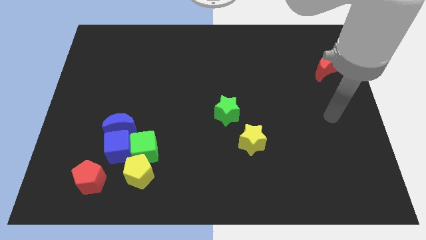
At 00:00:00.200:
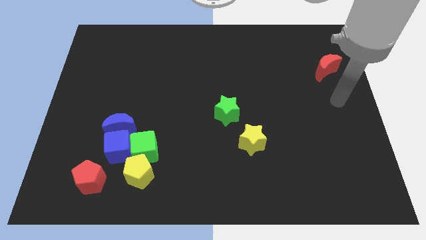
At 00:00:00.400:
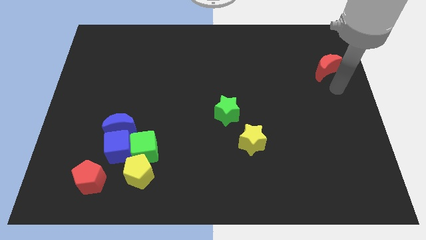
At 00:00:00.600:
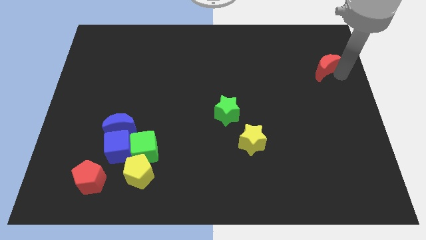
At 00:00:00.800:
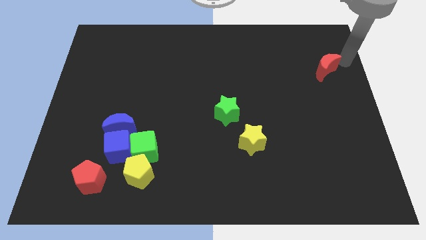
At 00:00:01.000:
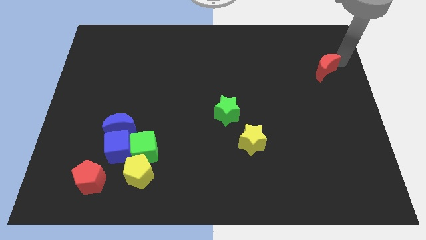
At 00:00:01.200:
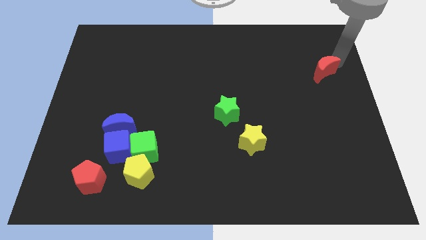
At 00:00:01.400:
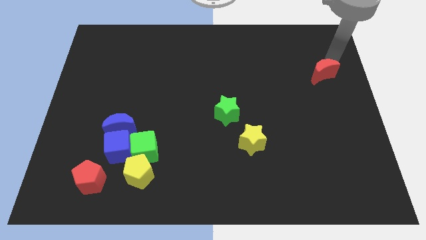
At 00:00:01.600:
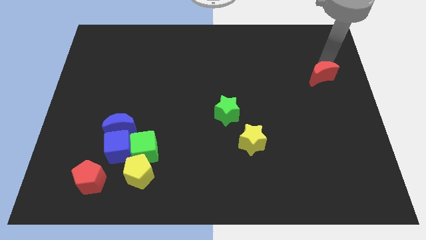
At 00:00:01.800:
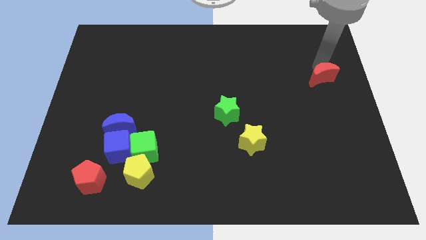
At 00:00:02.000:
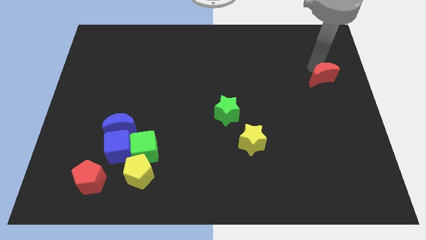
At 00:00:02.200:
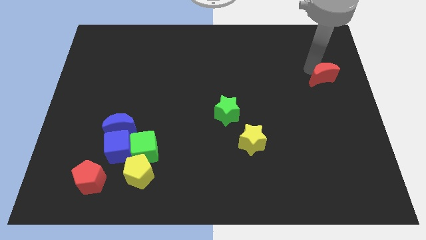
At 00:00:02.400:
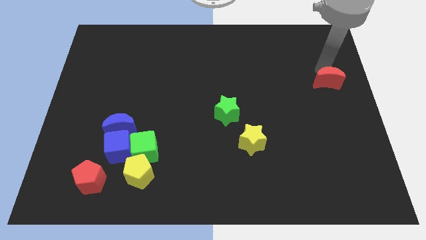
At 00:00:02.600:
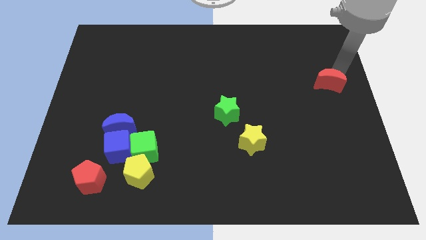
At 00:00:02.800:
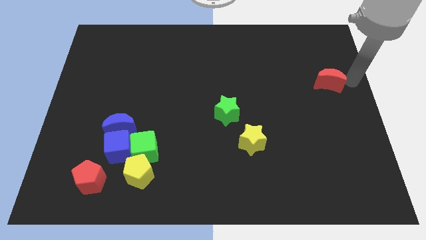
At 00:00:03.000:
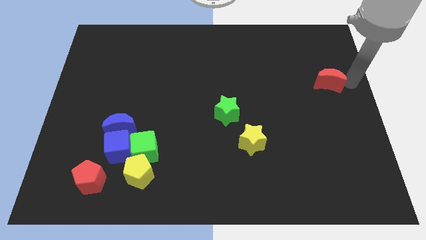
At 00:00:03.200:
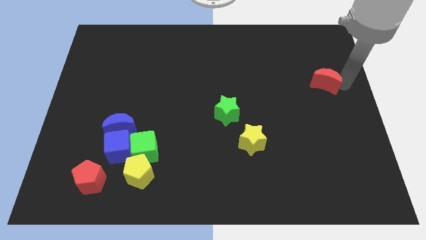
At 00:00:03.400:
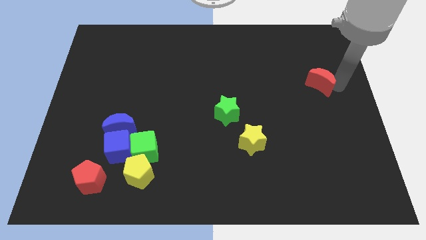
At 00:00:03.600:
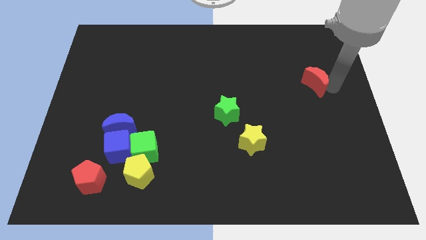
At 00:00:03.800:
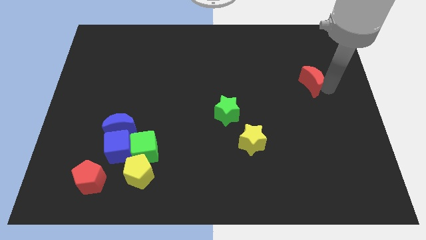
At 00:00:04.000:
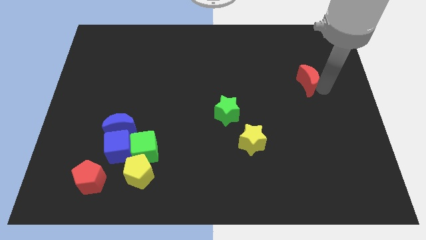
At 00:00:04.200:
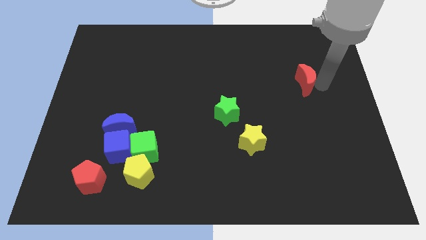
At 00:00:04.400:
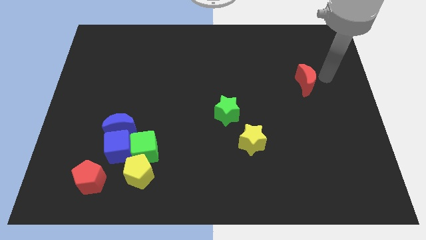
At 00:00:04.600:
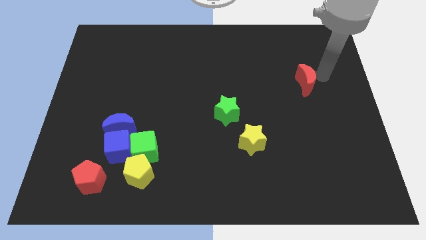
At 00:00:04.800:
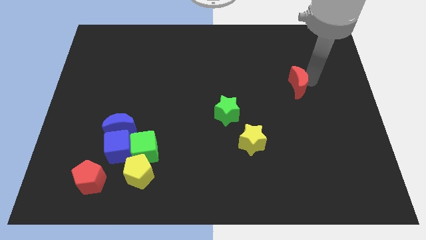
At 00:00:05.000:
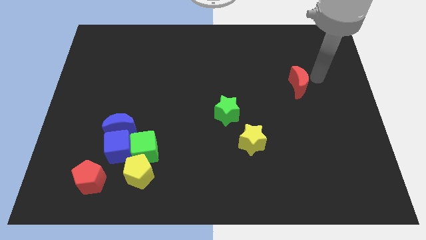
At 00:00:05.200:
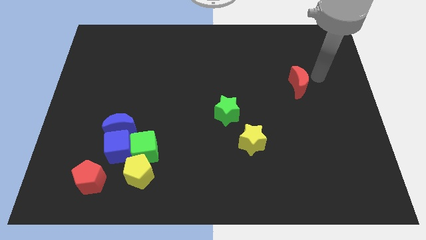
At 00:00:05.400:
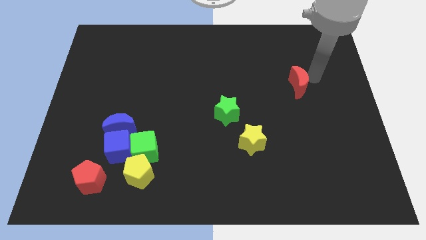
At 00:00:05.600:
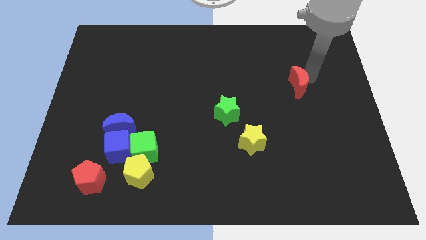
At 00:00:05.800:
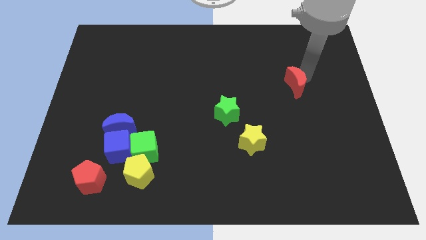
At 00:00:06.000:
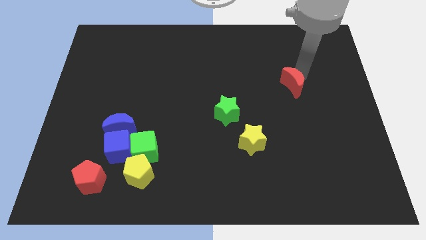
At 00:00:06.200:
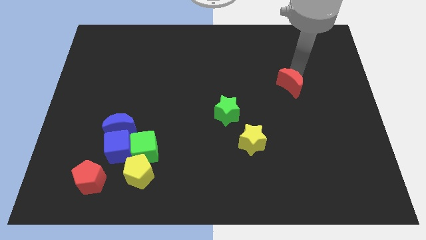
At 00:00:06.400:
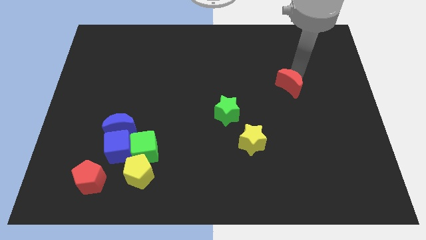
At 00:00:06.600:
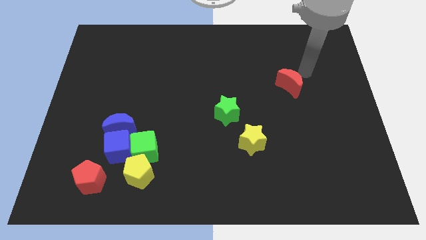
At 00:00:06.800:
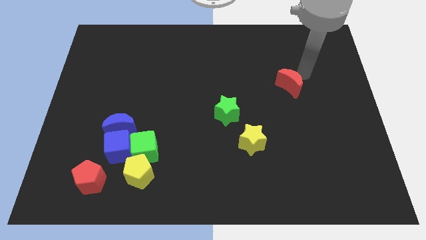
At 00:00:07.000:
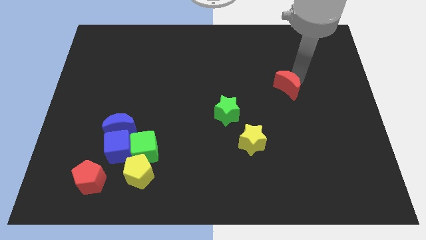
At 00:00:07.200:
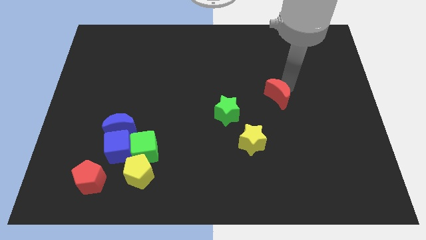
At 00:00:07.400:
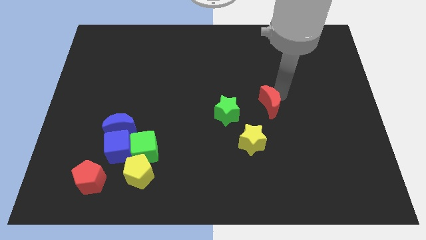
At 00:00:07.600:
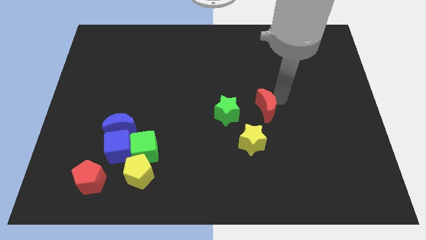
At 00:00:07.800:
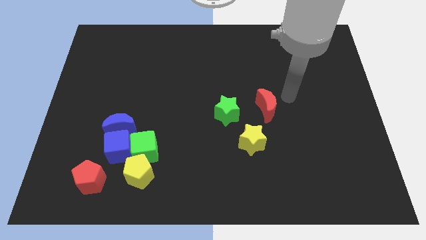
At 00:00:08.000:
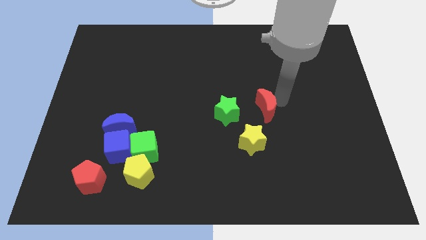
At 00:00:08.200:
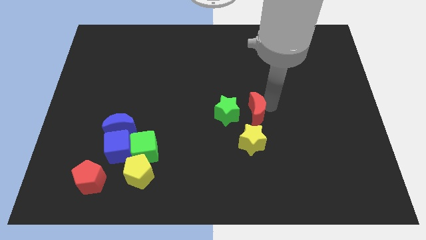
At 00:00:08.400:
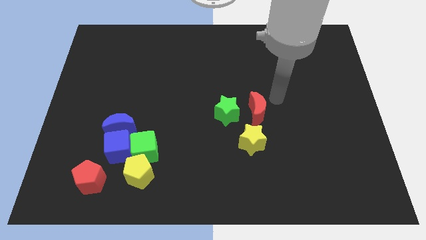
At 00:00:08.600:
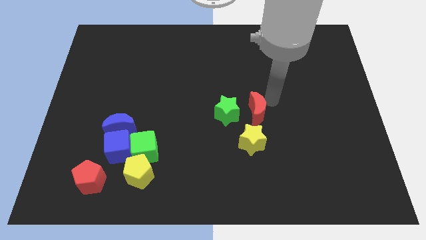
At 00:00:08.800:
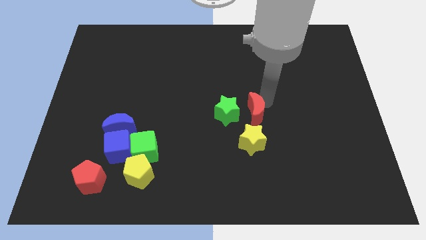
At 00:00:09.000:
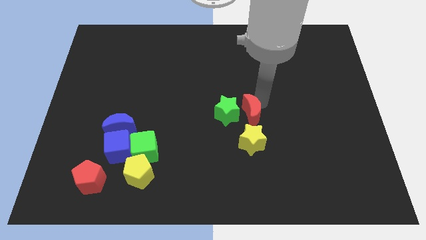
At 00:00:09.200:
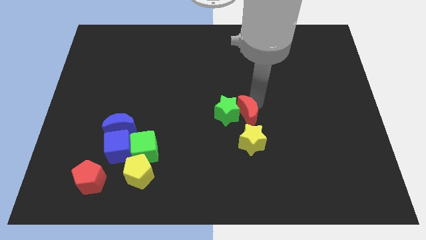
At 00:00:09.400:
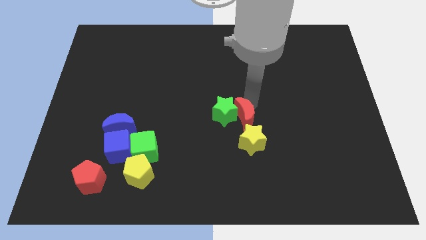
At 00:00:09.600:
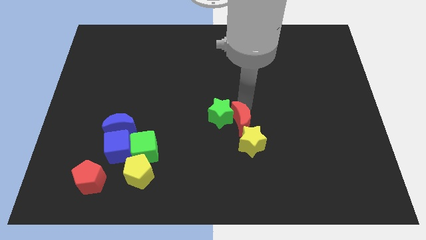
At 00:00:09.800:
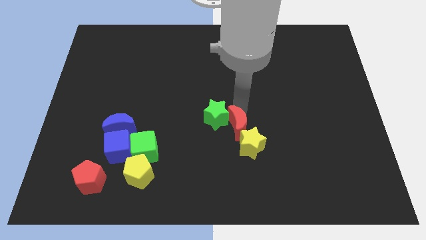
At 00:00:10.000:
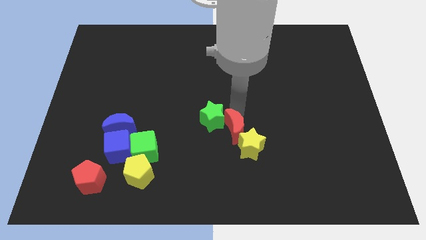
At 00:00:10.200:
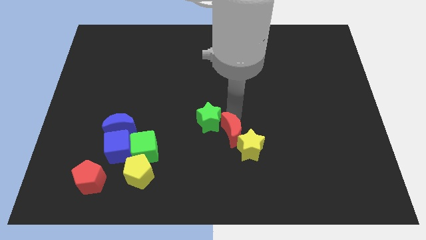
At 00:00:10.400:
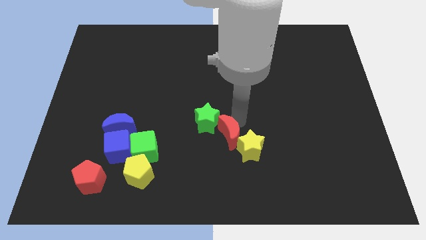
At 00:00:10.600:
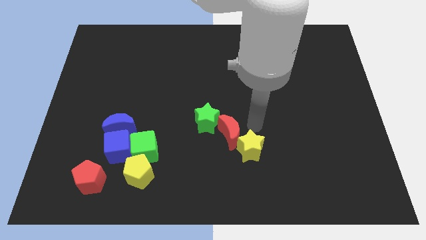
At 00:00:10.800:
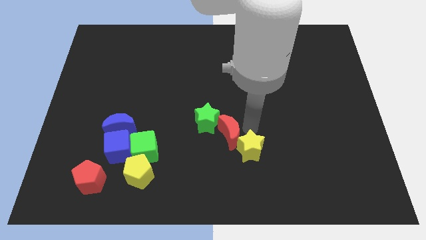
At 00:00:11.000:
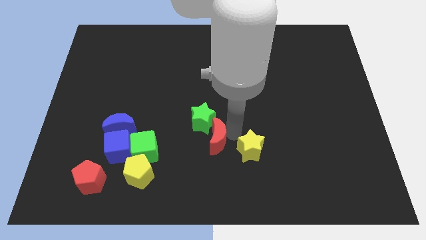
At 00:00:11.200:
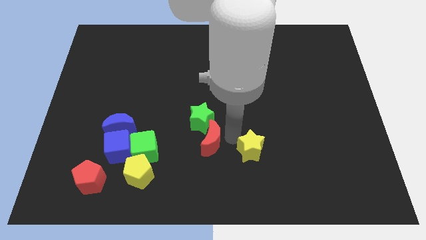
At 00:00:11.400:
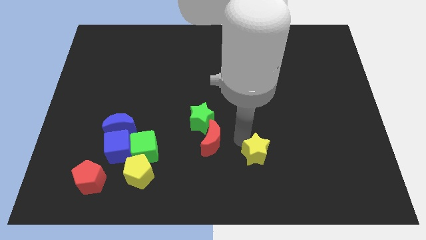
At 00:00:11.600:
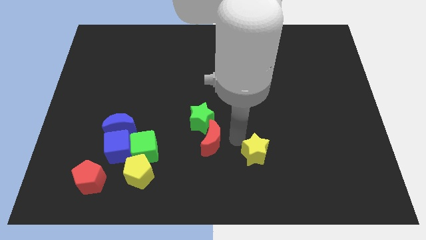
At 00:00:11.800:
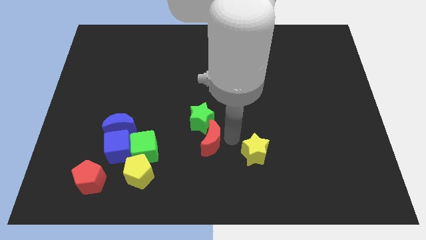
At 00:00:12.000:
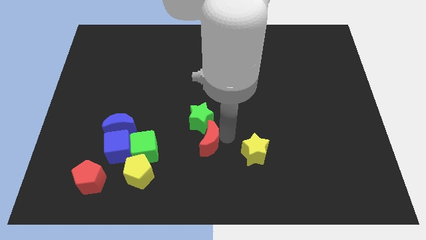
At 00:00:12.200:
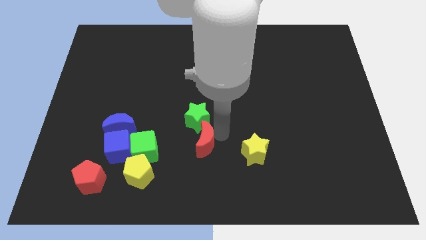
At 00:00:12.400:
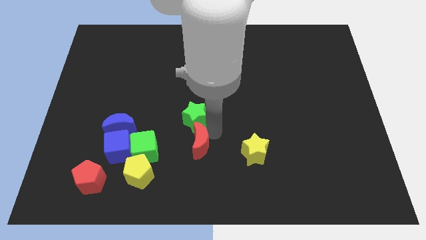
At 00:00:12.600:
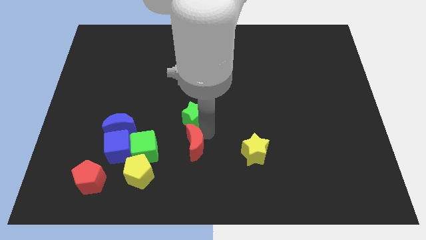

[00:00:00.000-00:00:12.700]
put the red moon to the right of the blue cube
